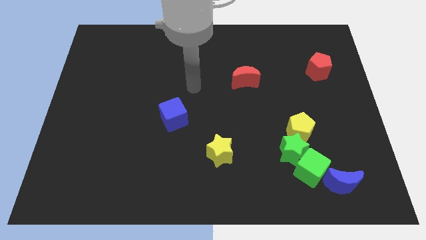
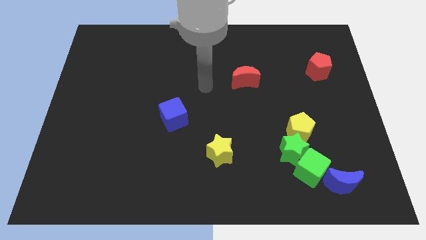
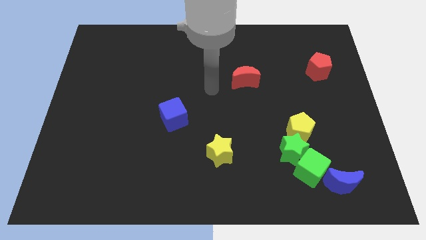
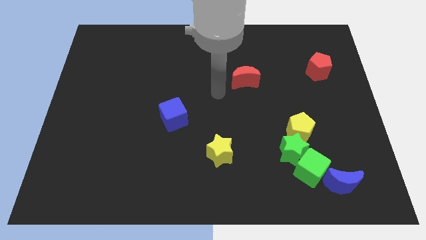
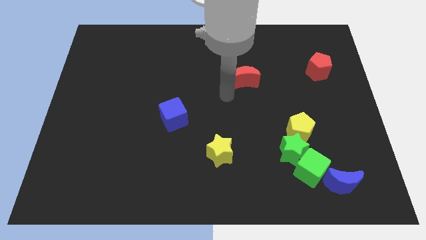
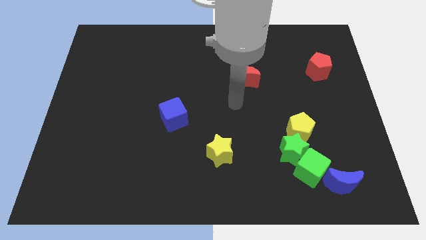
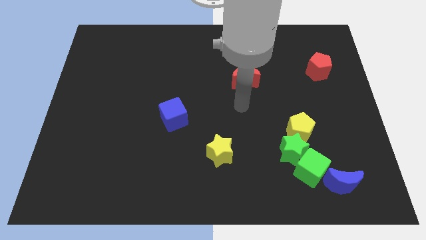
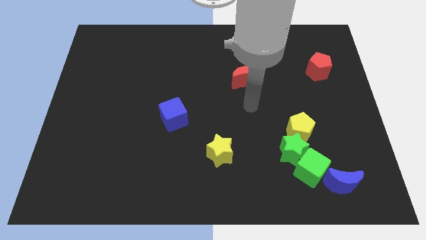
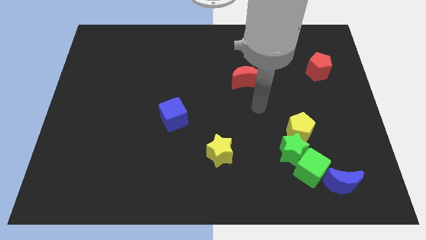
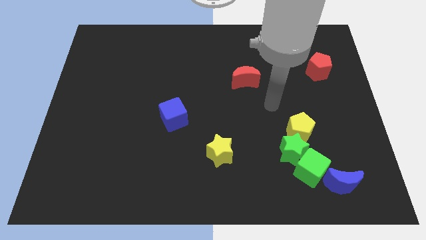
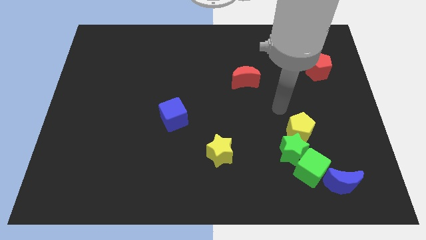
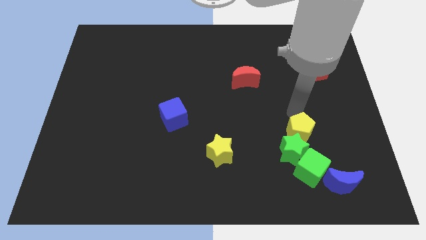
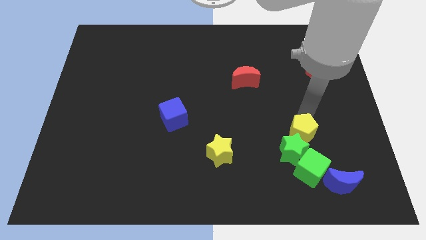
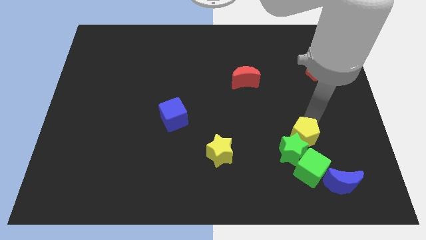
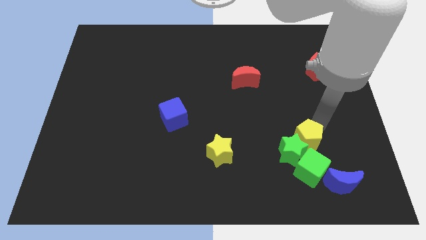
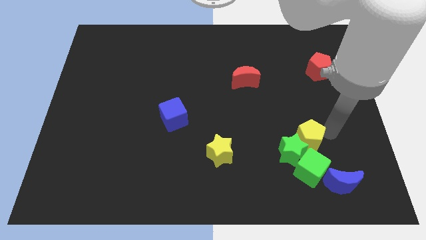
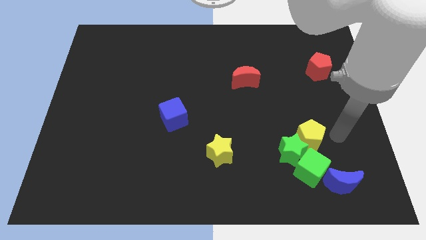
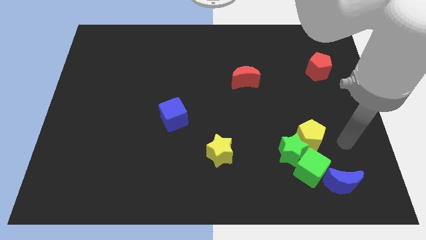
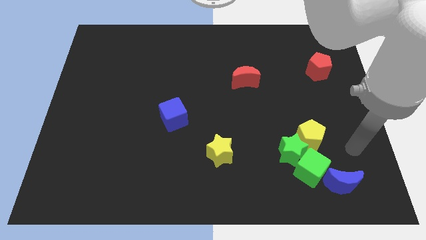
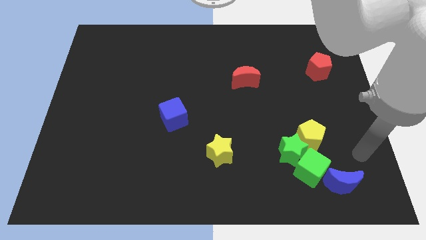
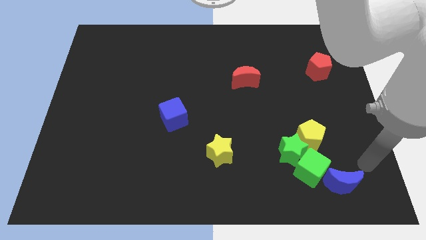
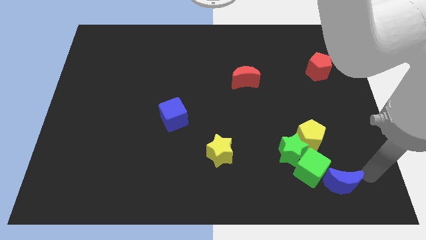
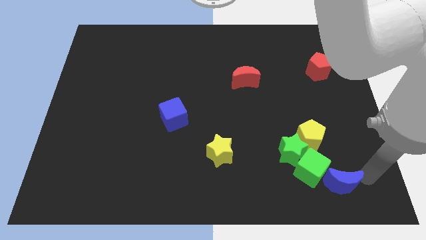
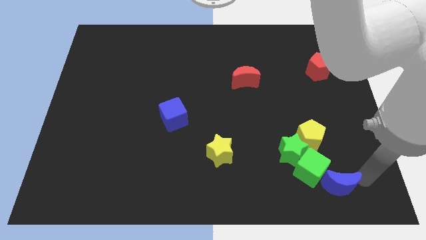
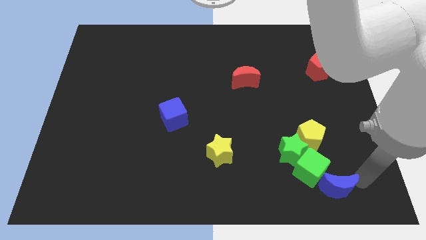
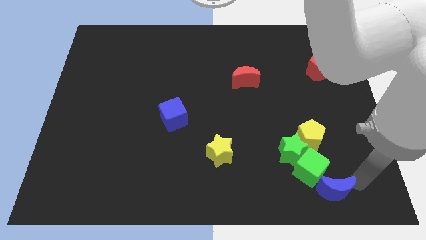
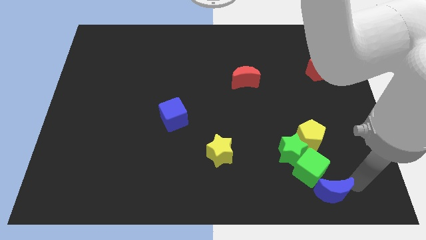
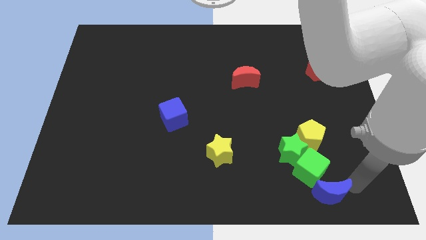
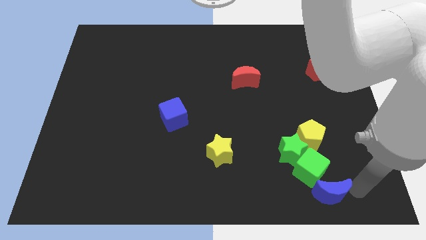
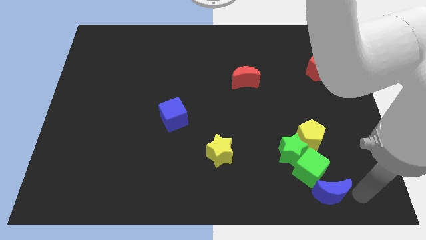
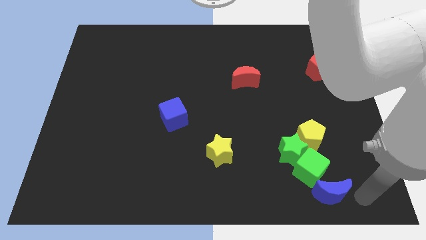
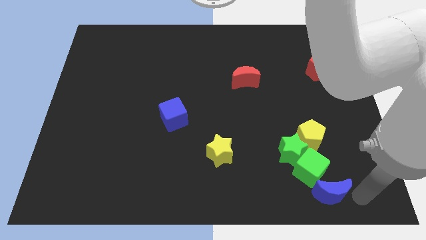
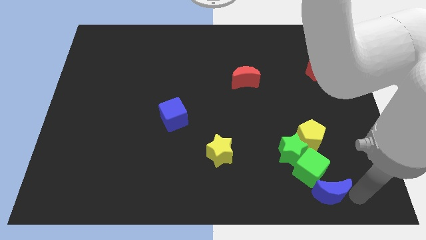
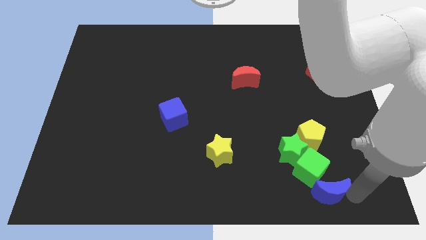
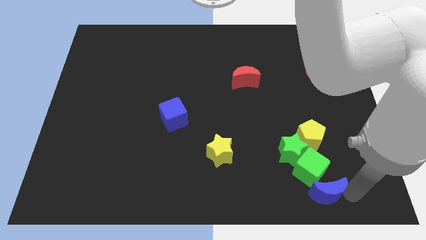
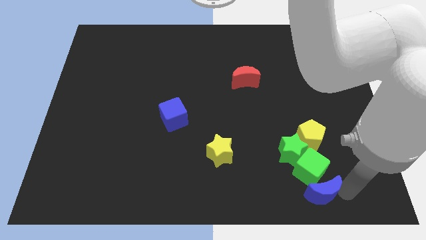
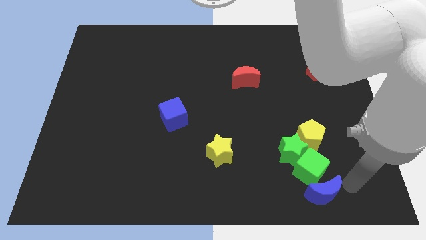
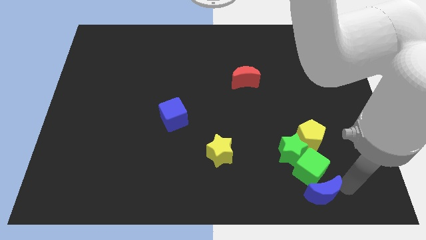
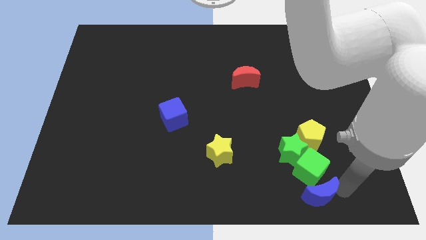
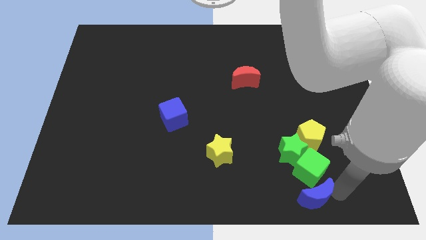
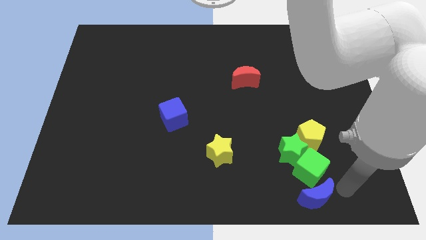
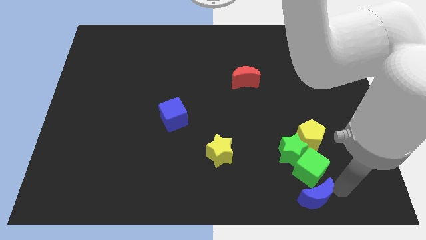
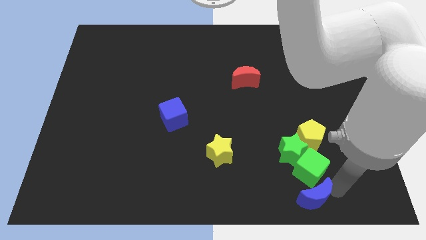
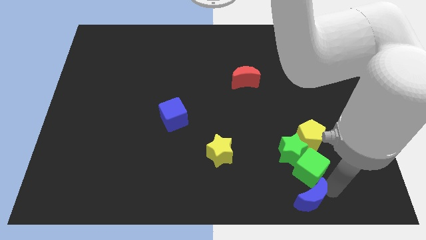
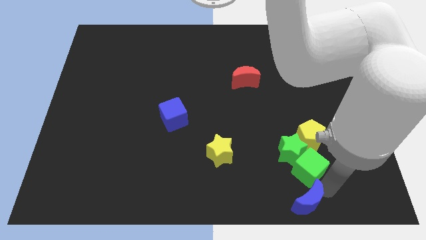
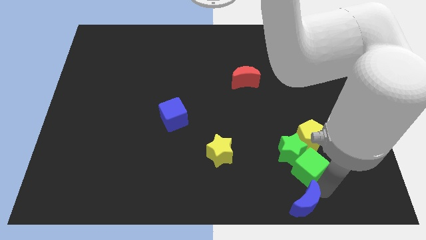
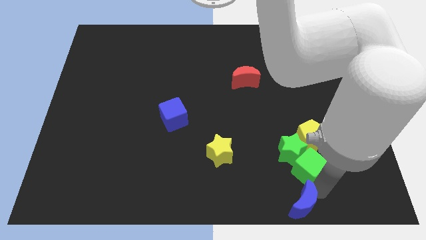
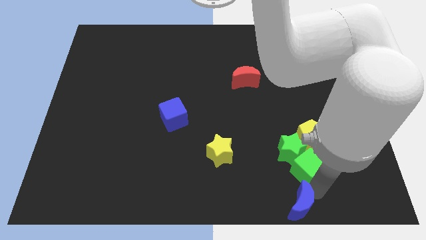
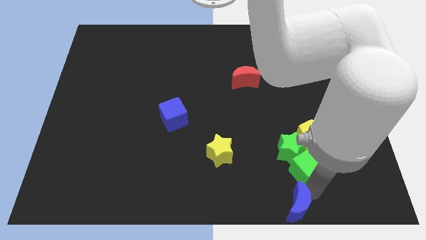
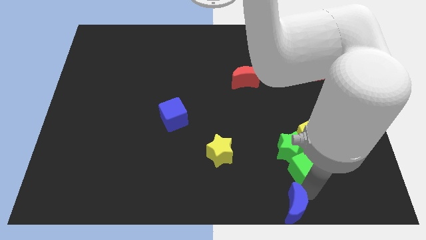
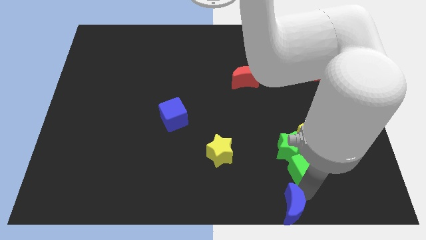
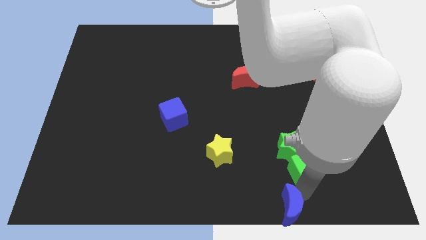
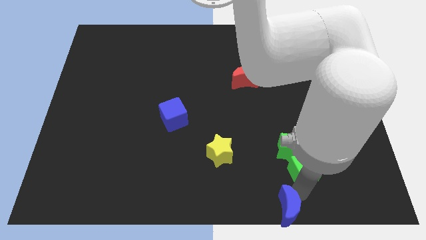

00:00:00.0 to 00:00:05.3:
slide the blue moon to the bottom

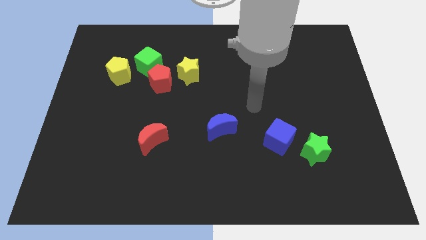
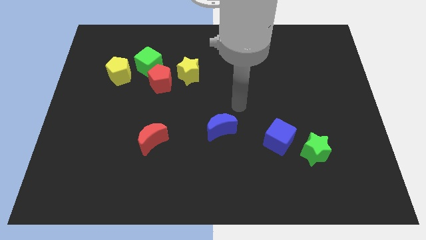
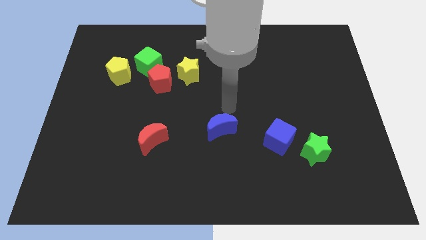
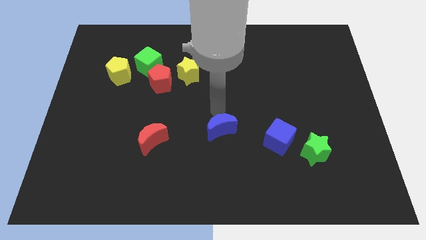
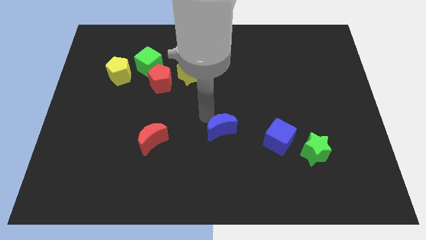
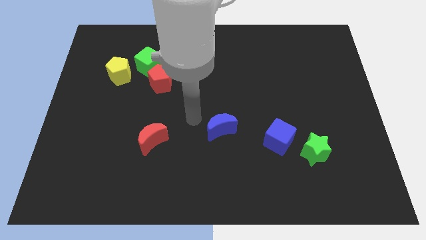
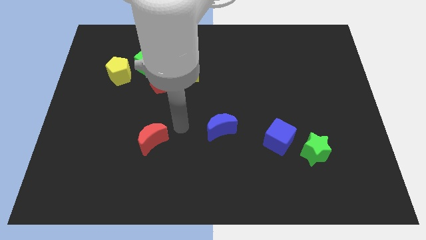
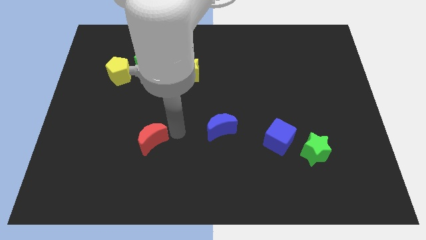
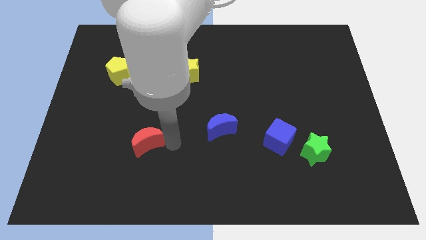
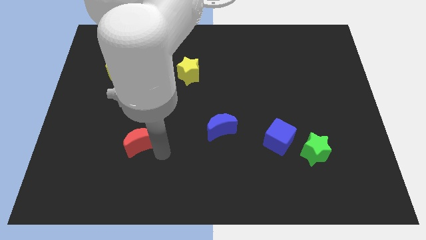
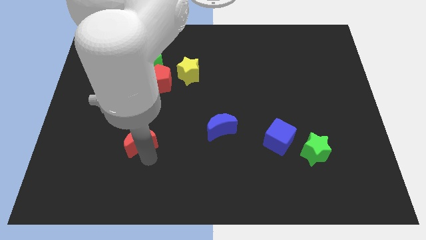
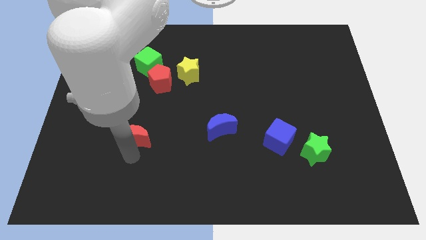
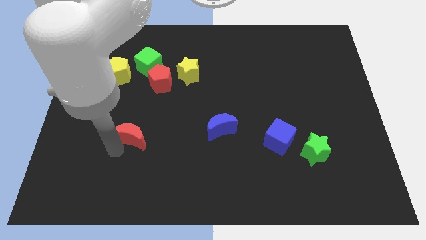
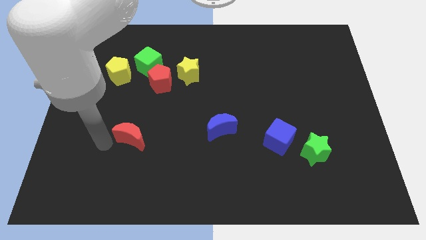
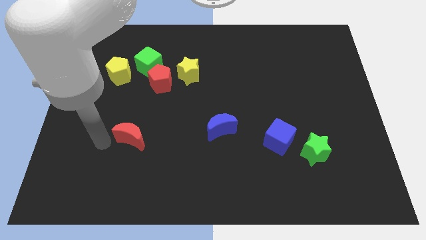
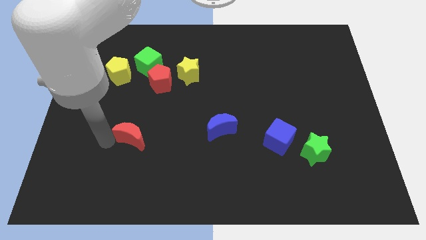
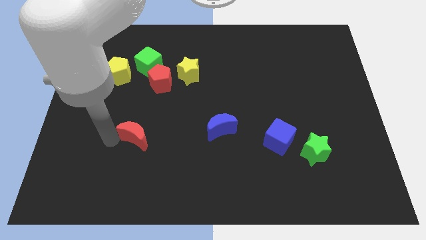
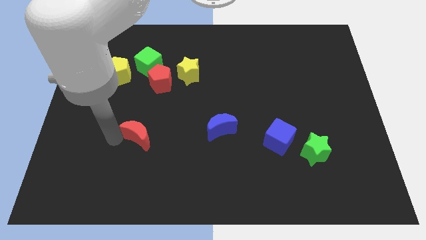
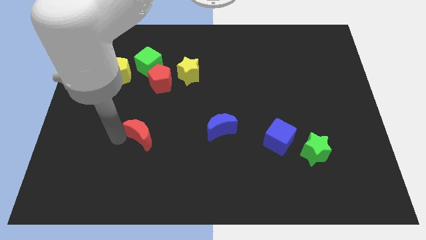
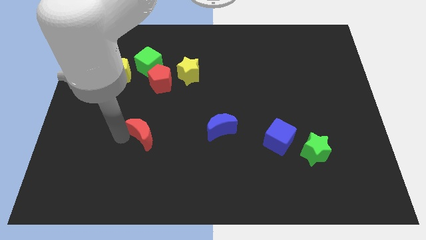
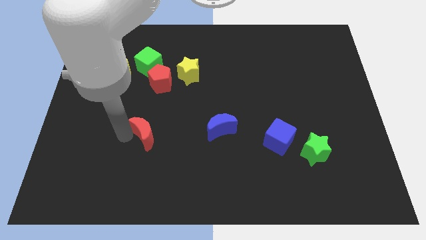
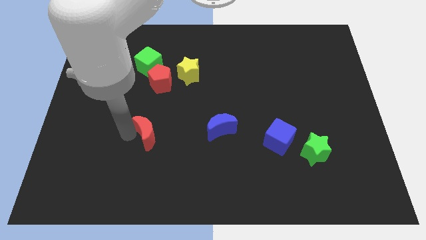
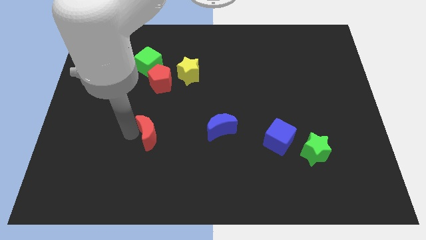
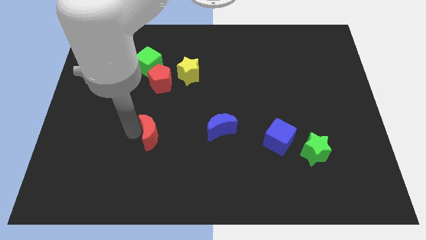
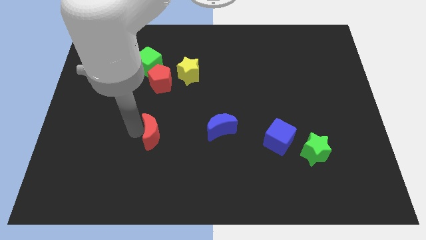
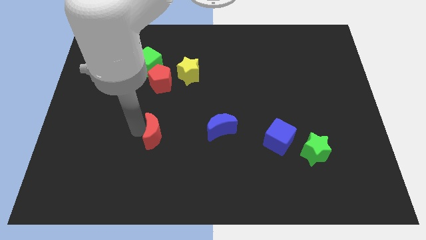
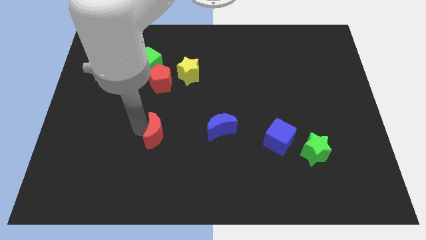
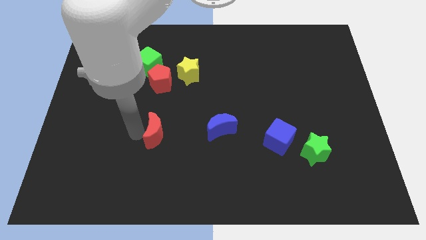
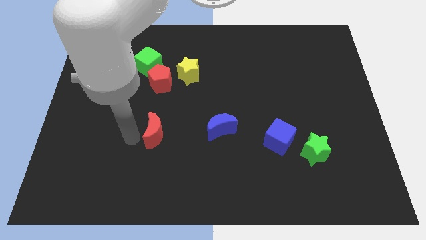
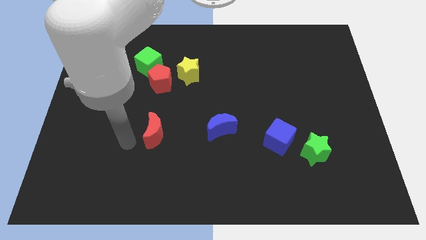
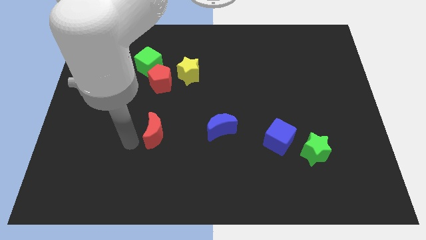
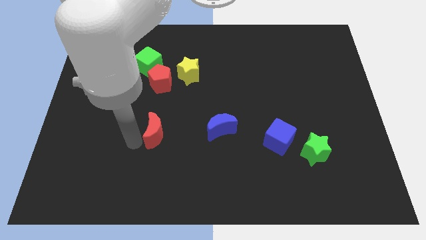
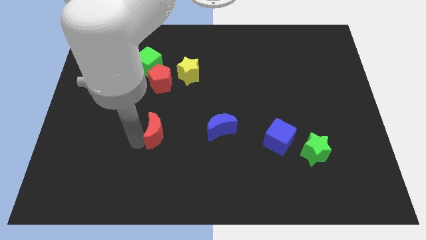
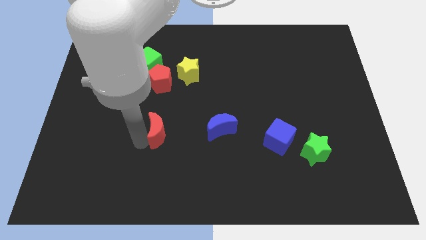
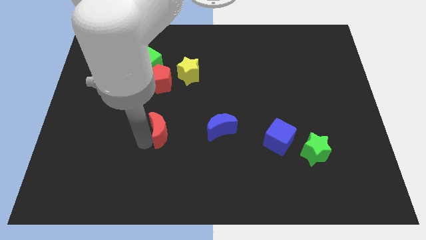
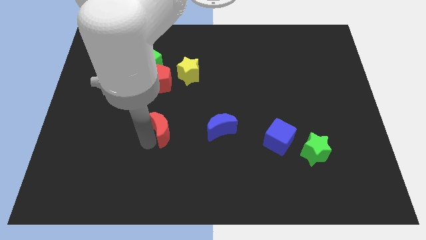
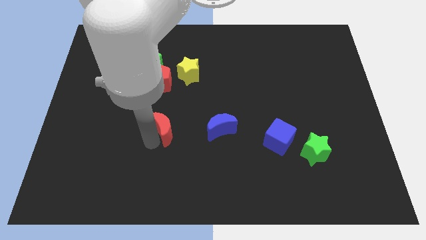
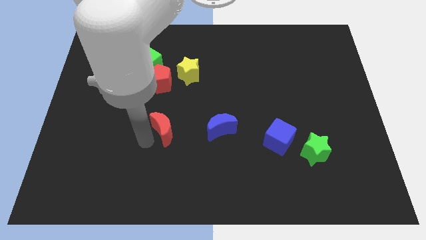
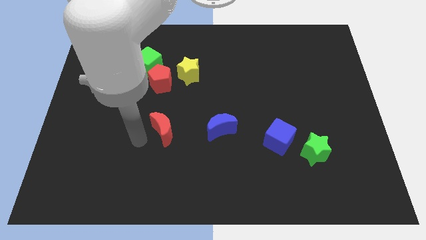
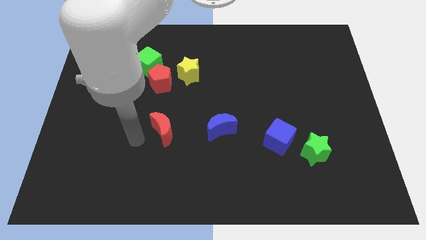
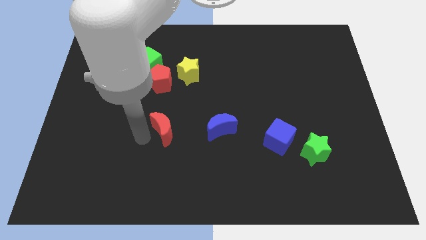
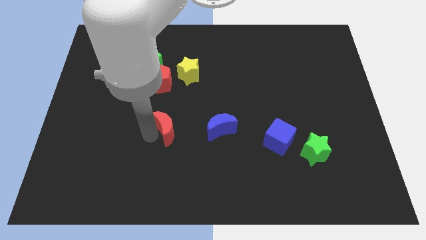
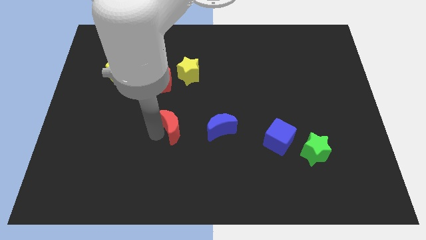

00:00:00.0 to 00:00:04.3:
push the red moon to the middle
